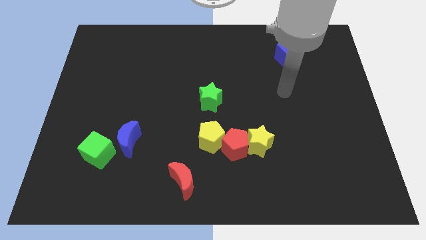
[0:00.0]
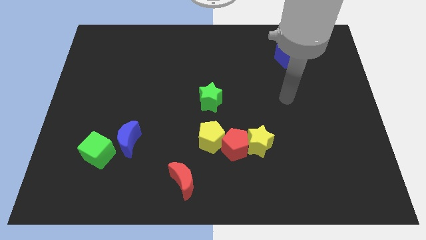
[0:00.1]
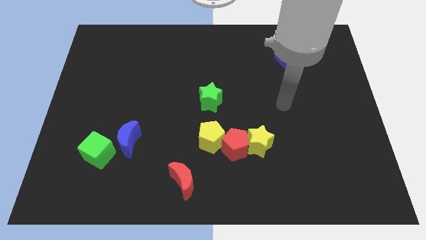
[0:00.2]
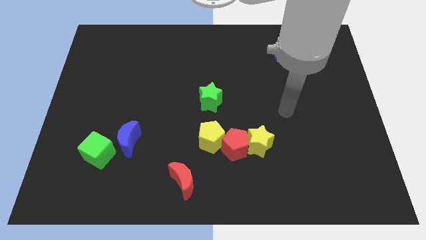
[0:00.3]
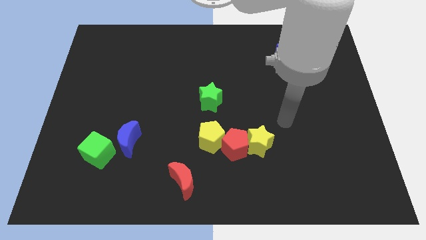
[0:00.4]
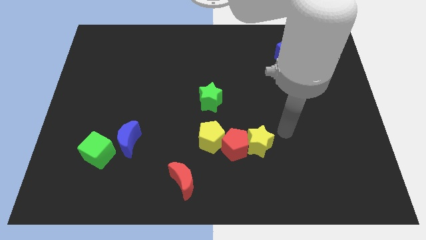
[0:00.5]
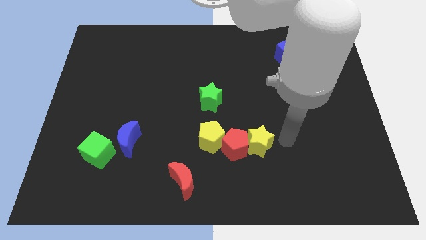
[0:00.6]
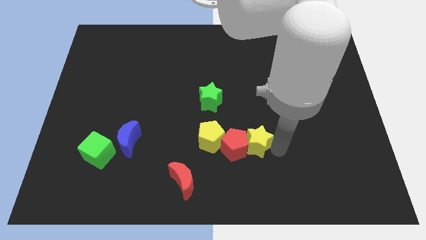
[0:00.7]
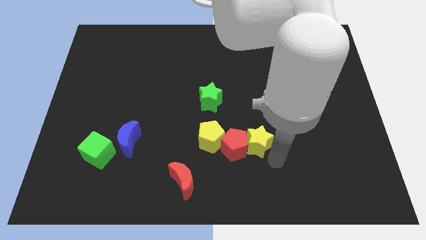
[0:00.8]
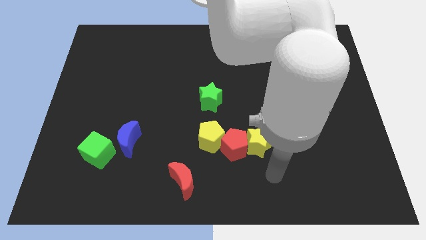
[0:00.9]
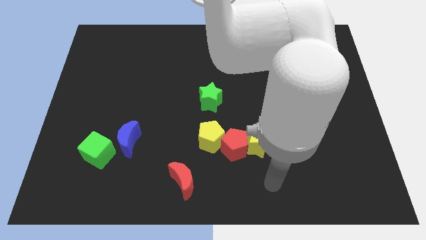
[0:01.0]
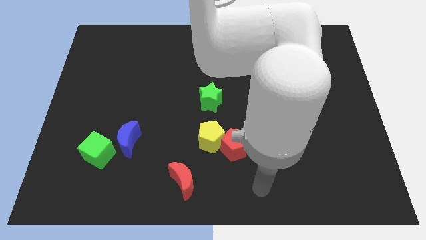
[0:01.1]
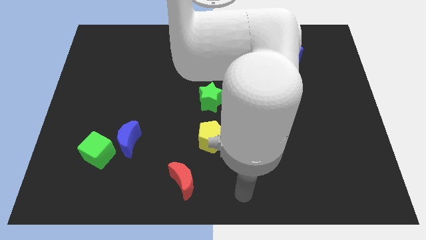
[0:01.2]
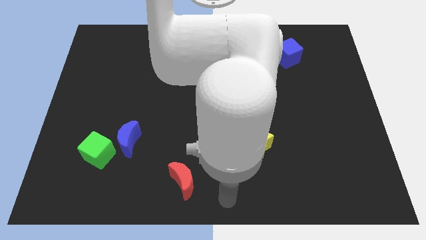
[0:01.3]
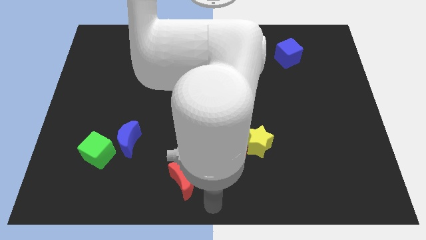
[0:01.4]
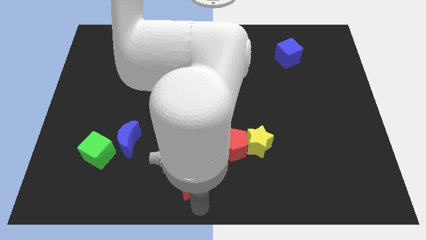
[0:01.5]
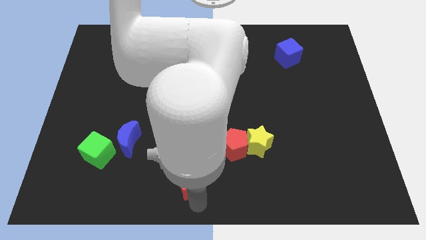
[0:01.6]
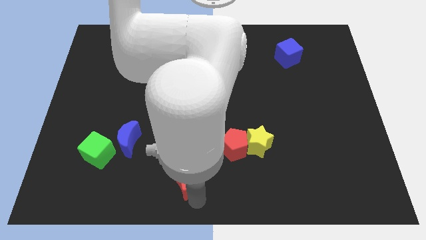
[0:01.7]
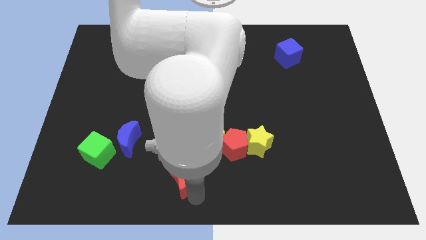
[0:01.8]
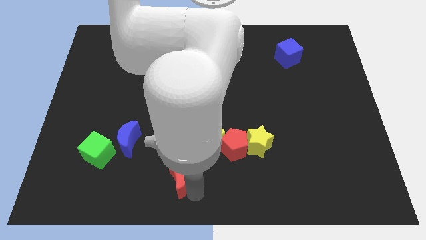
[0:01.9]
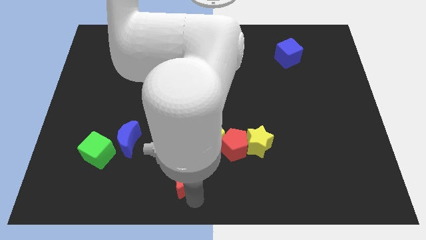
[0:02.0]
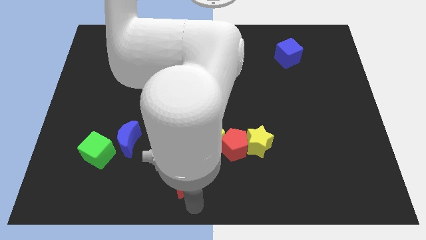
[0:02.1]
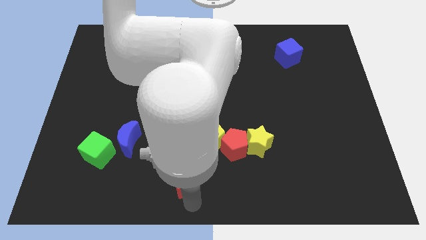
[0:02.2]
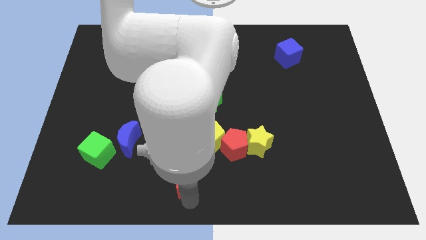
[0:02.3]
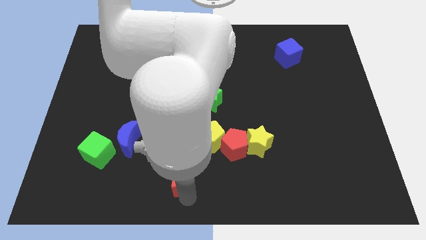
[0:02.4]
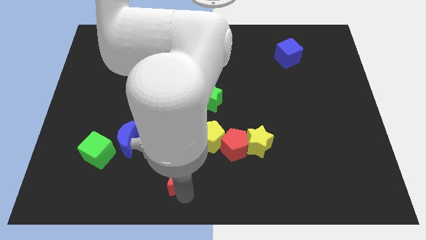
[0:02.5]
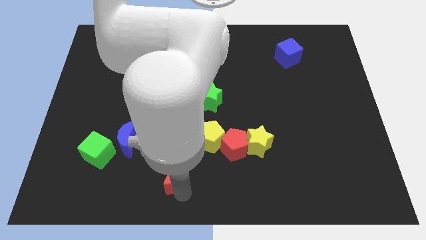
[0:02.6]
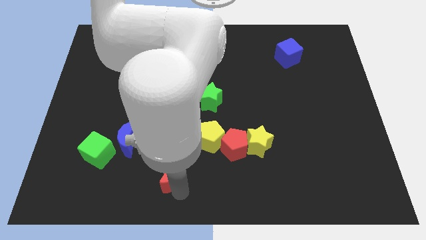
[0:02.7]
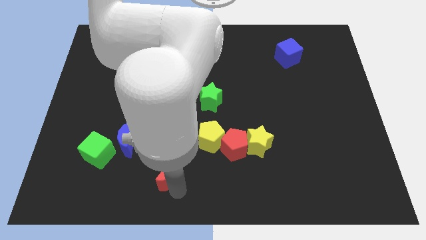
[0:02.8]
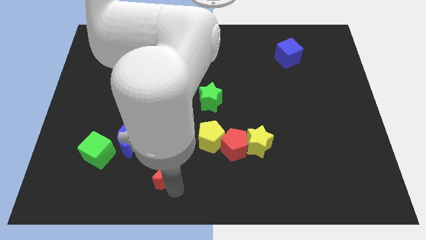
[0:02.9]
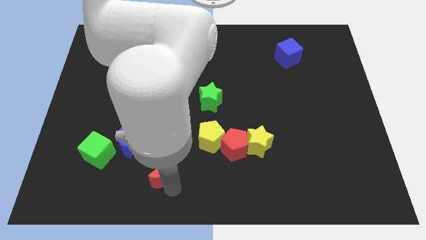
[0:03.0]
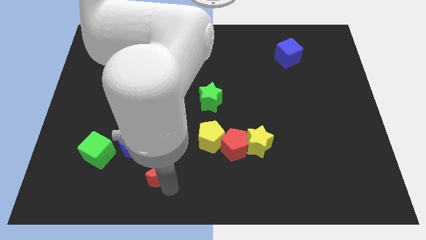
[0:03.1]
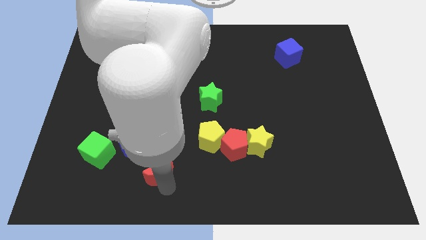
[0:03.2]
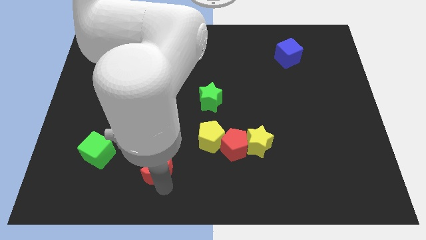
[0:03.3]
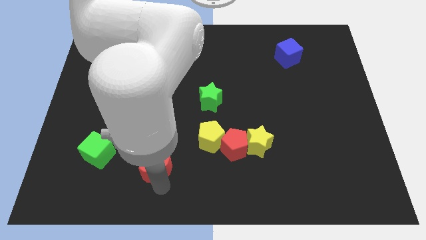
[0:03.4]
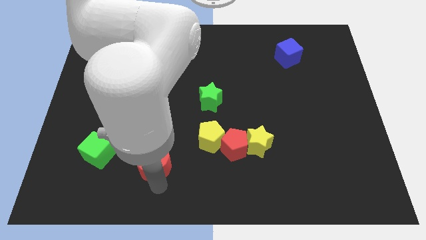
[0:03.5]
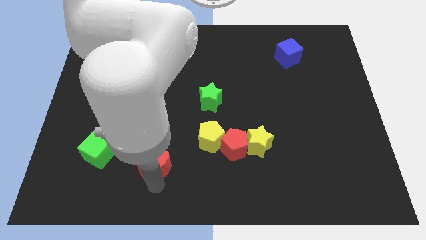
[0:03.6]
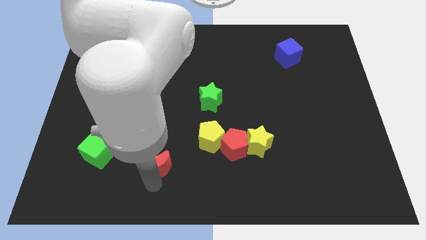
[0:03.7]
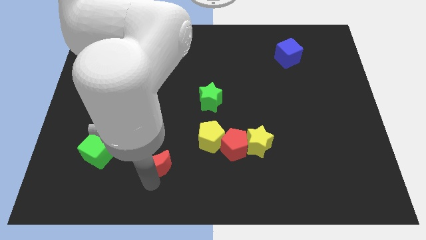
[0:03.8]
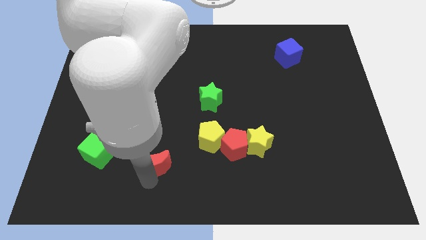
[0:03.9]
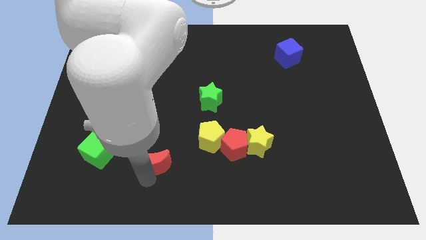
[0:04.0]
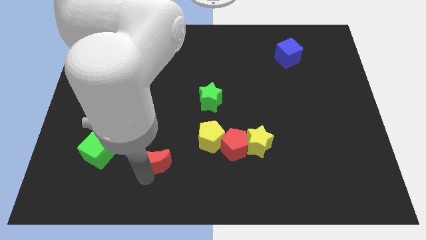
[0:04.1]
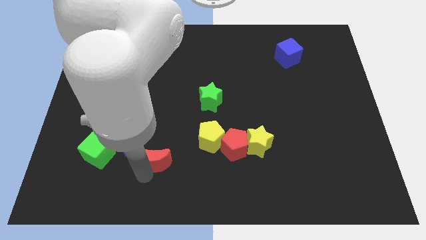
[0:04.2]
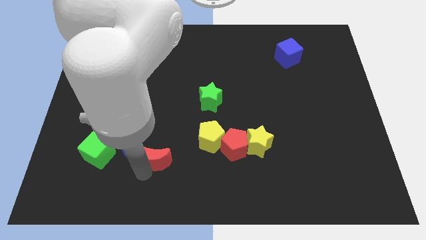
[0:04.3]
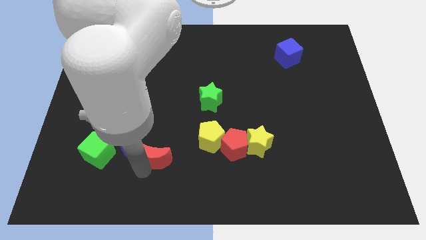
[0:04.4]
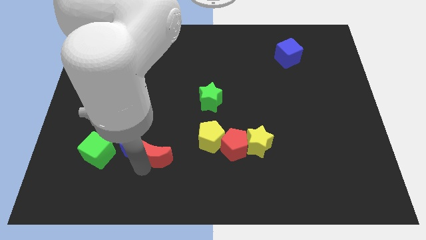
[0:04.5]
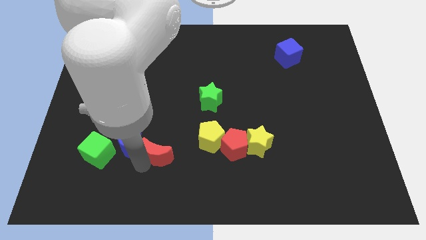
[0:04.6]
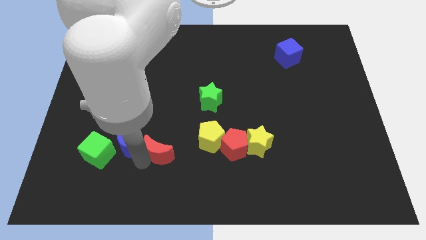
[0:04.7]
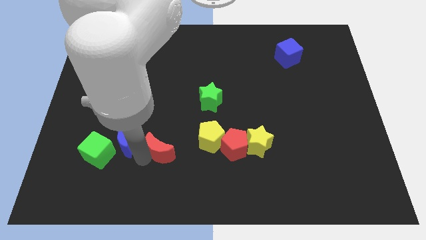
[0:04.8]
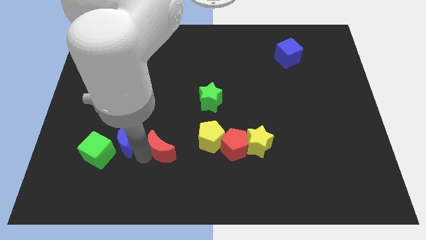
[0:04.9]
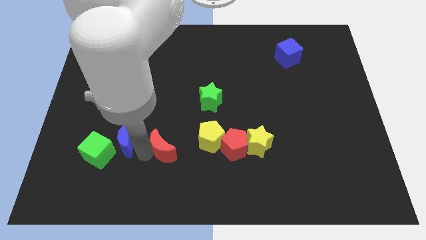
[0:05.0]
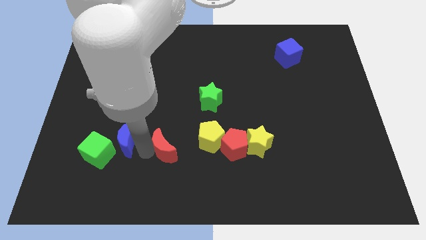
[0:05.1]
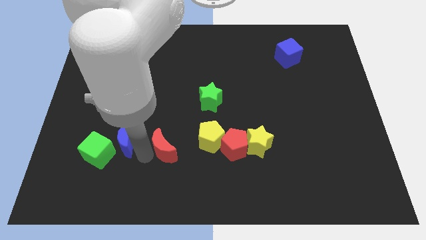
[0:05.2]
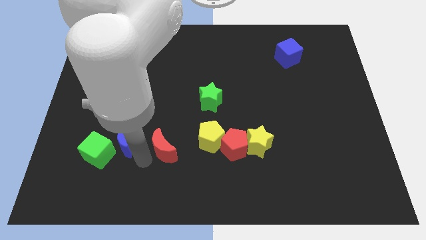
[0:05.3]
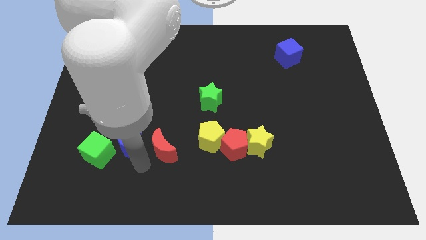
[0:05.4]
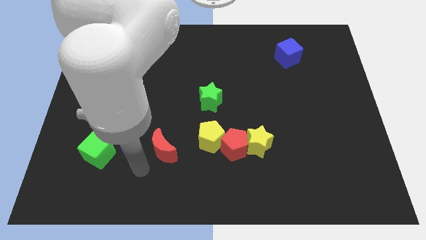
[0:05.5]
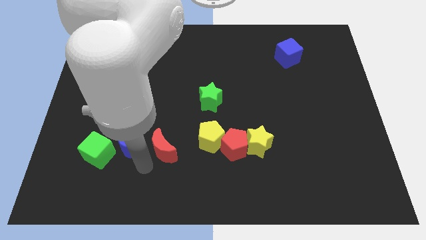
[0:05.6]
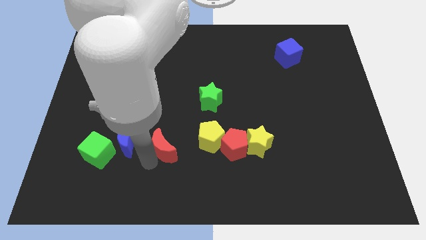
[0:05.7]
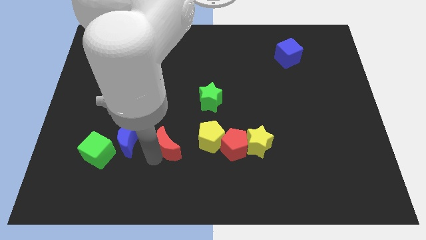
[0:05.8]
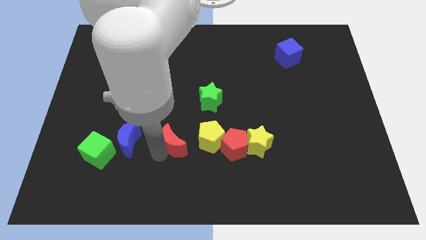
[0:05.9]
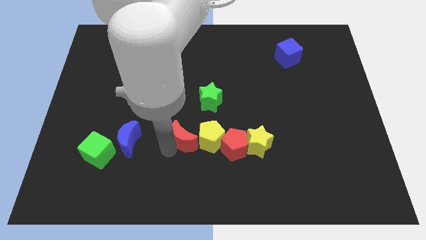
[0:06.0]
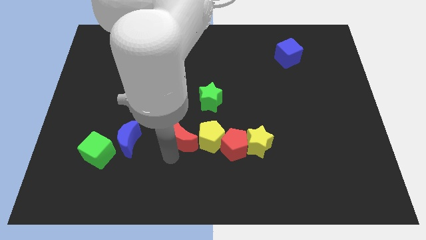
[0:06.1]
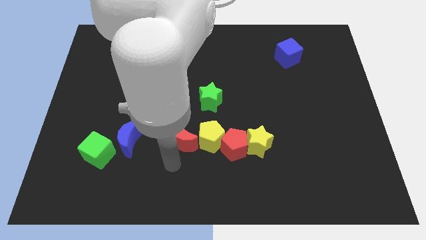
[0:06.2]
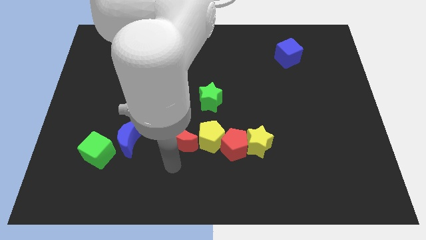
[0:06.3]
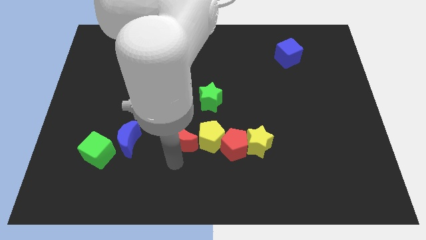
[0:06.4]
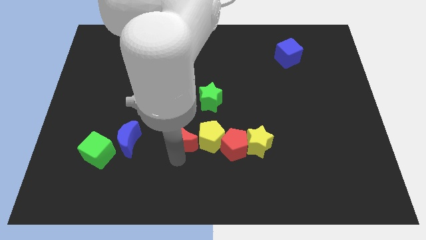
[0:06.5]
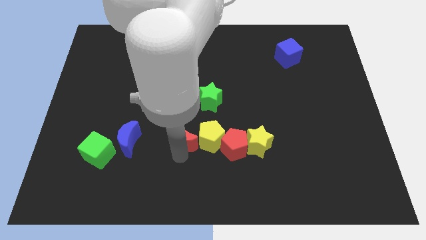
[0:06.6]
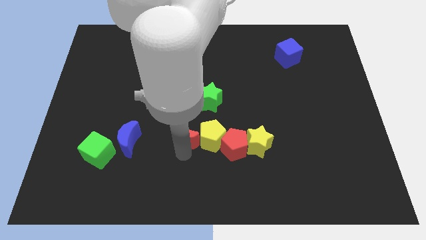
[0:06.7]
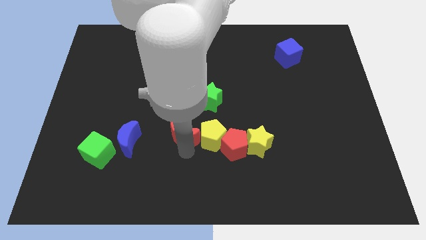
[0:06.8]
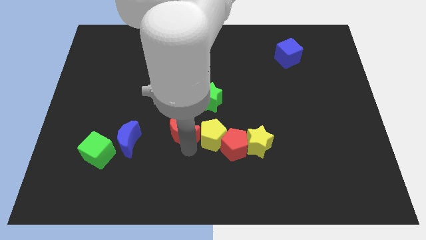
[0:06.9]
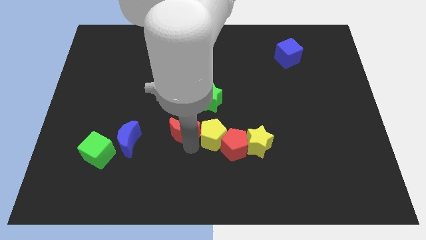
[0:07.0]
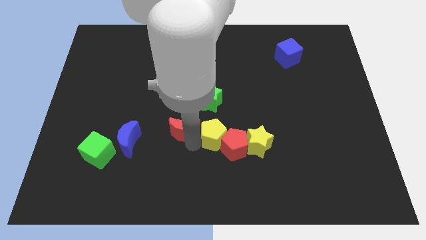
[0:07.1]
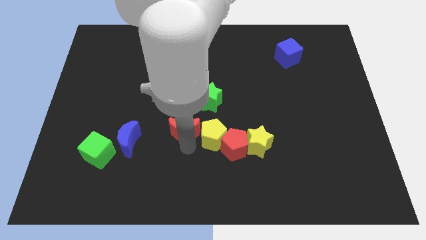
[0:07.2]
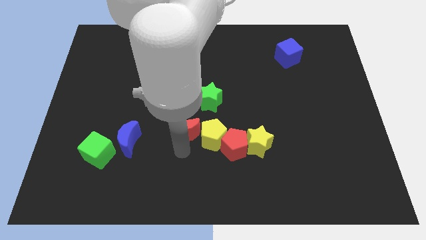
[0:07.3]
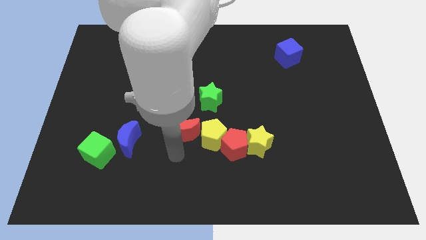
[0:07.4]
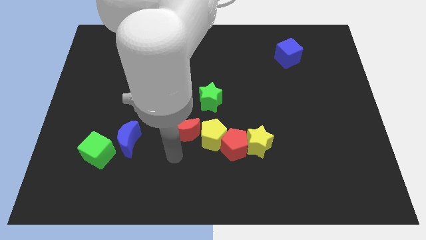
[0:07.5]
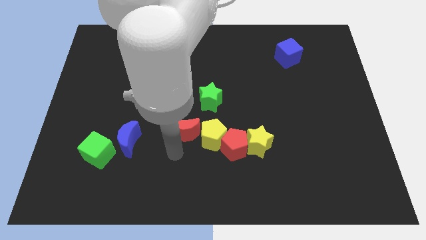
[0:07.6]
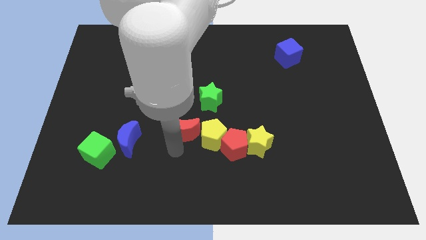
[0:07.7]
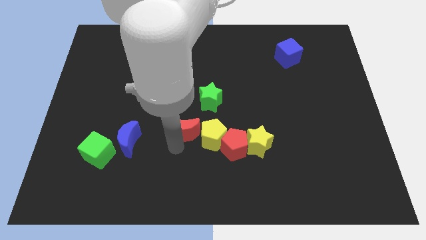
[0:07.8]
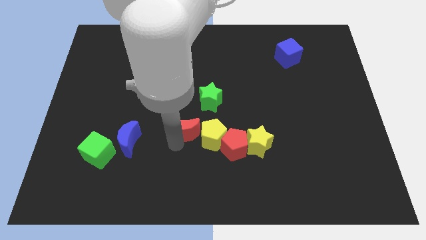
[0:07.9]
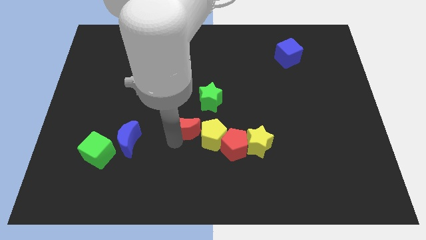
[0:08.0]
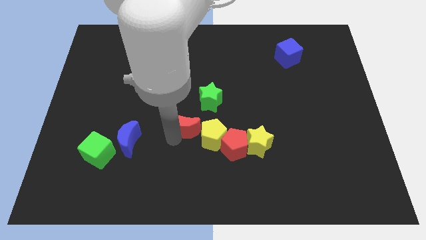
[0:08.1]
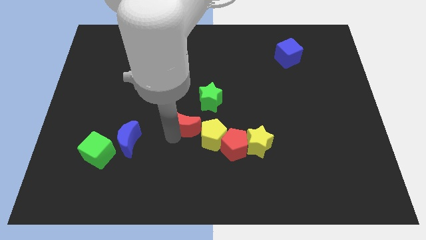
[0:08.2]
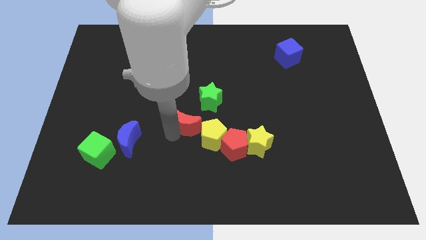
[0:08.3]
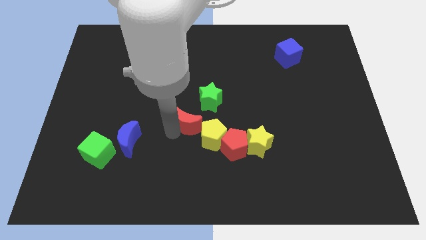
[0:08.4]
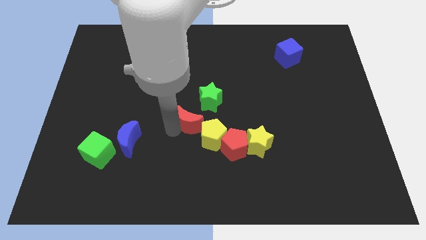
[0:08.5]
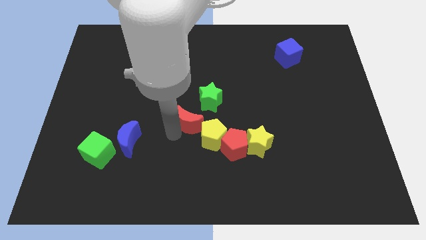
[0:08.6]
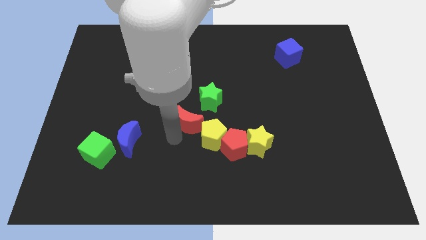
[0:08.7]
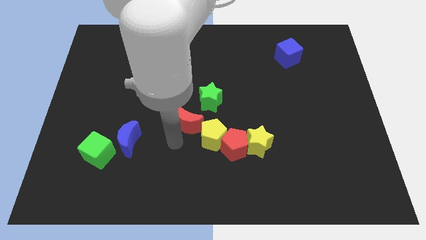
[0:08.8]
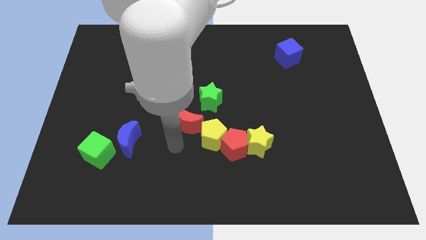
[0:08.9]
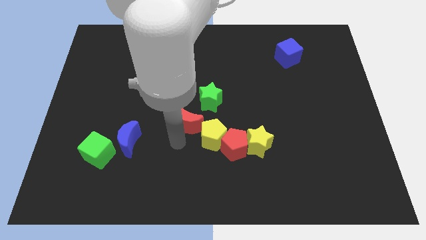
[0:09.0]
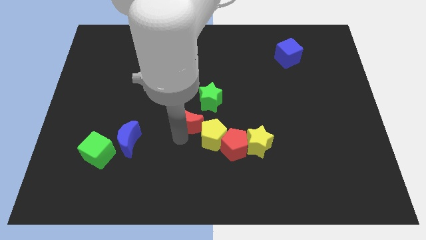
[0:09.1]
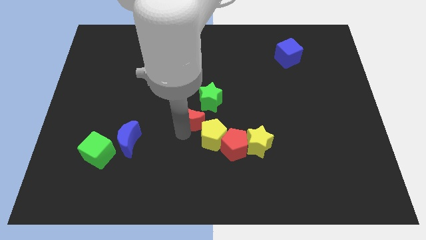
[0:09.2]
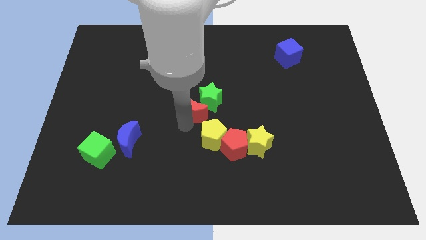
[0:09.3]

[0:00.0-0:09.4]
put the red moon towards the green star
